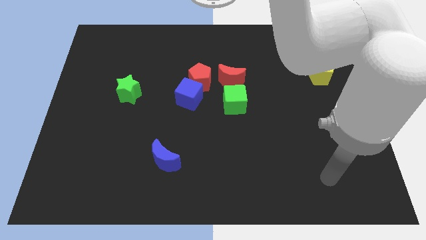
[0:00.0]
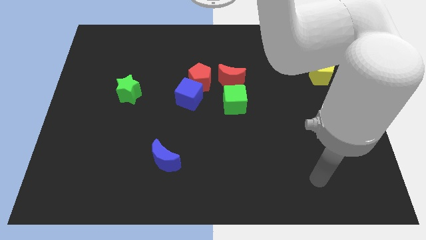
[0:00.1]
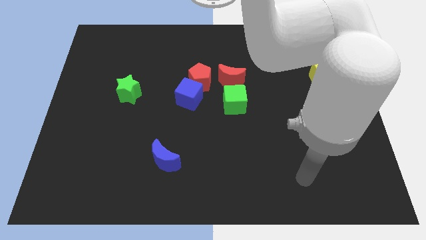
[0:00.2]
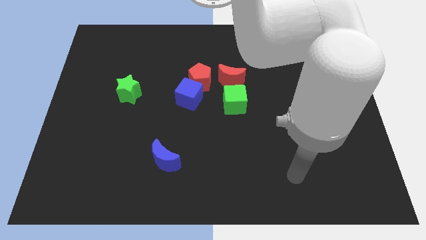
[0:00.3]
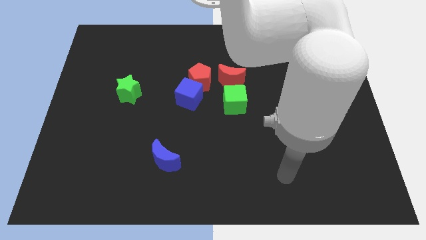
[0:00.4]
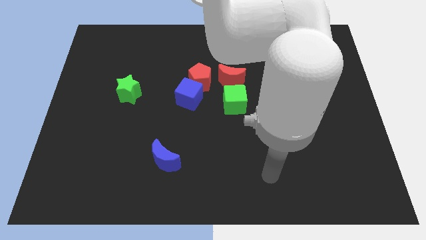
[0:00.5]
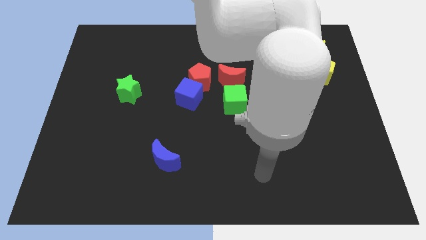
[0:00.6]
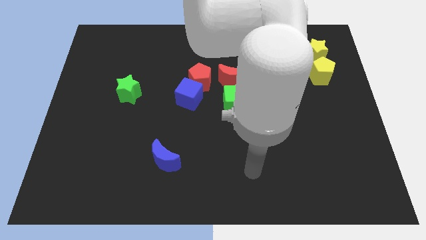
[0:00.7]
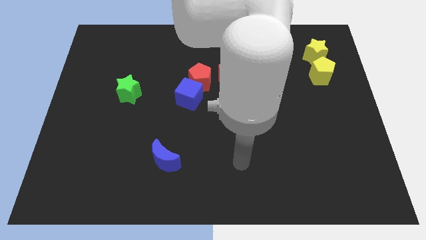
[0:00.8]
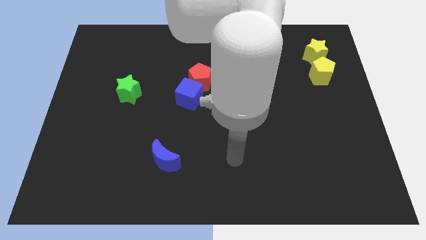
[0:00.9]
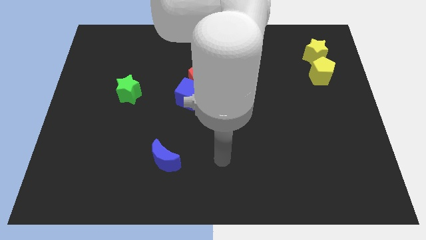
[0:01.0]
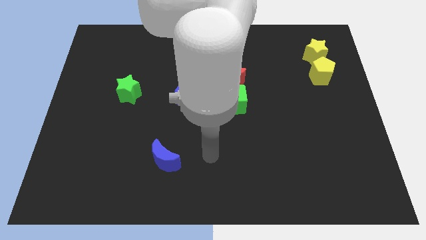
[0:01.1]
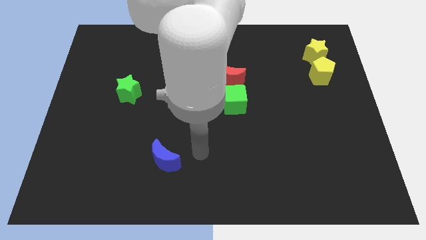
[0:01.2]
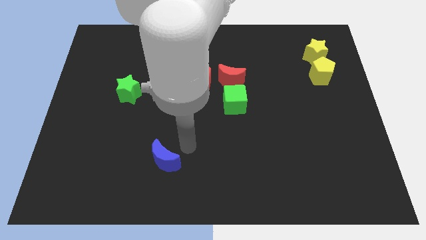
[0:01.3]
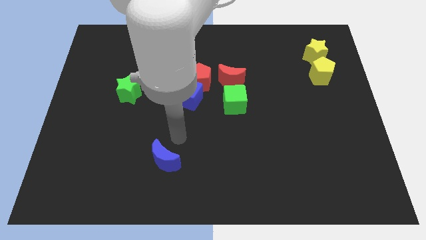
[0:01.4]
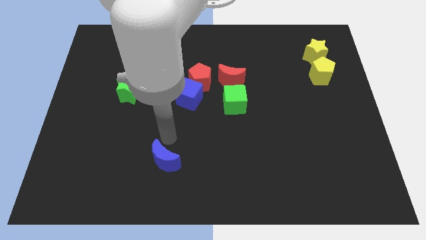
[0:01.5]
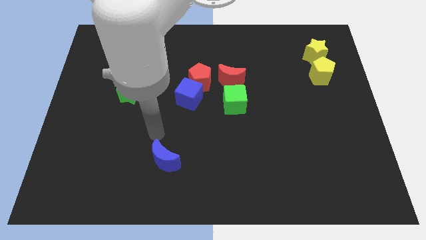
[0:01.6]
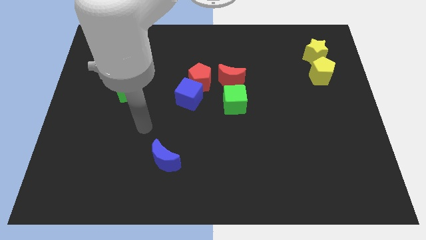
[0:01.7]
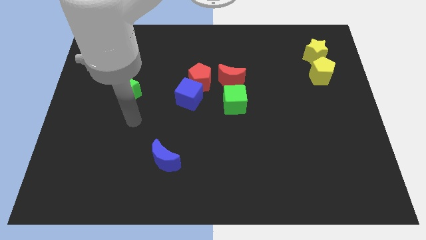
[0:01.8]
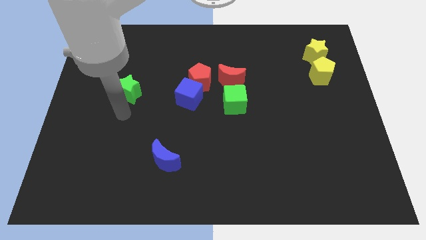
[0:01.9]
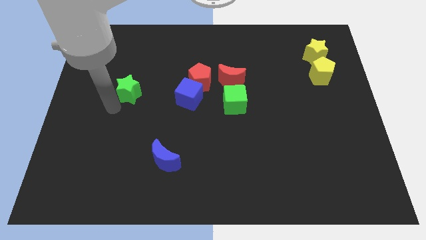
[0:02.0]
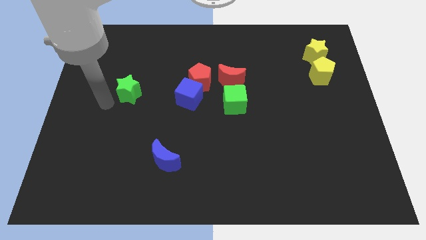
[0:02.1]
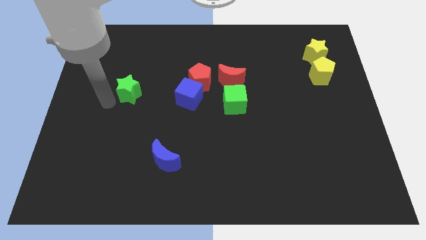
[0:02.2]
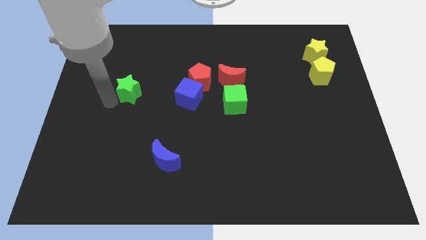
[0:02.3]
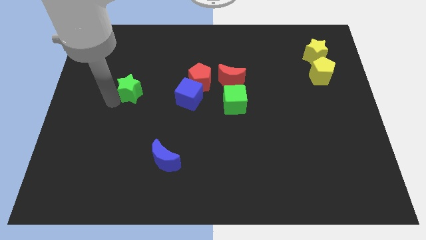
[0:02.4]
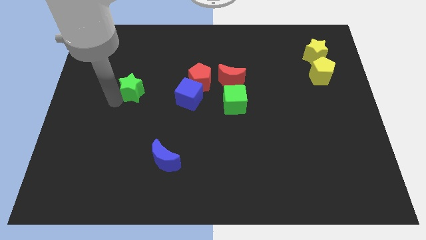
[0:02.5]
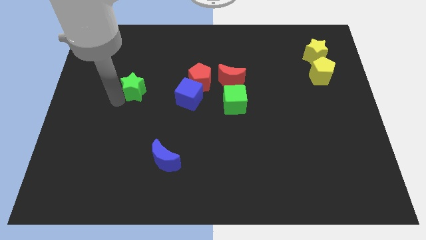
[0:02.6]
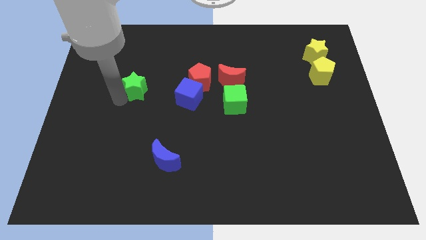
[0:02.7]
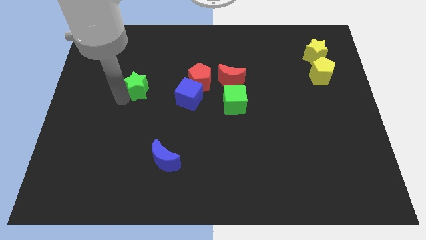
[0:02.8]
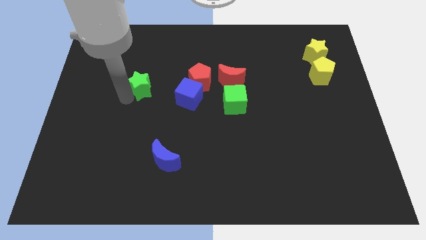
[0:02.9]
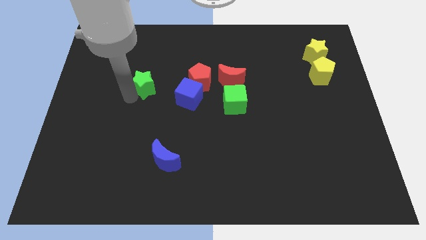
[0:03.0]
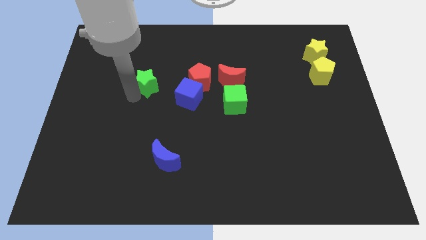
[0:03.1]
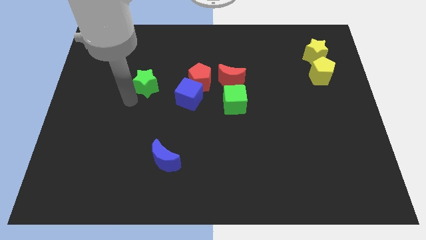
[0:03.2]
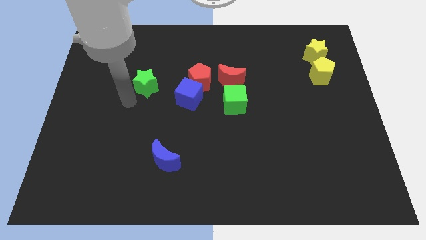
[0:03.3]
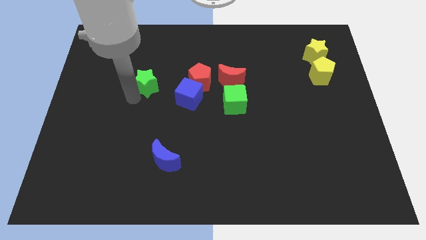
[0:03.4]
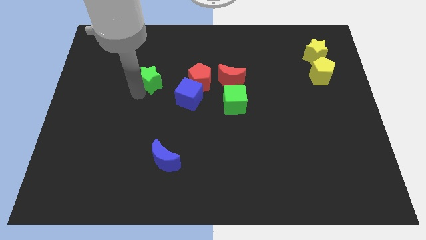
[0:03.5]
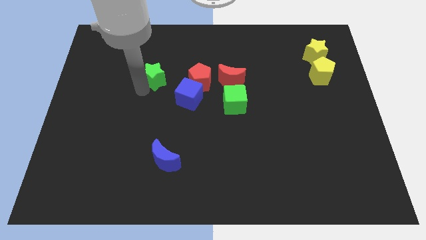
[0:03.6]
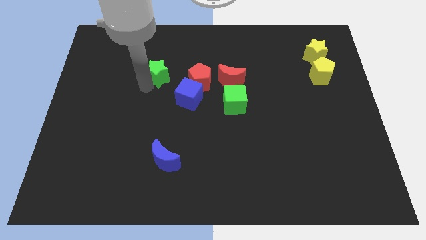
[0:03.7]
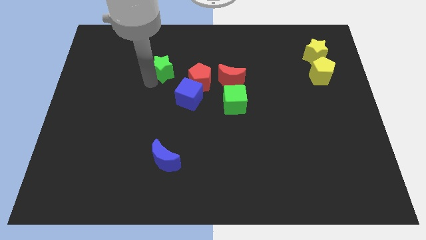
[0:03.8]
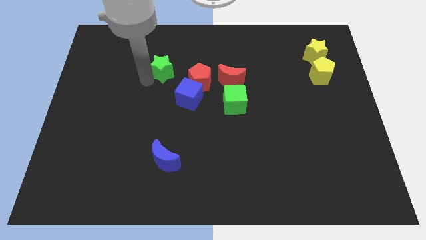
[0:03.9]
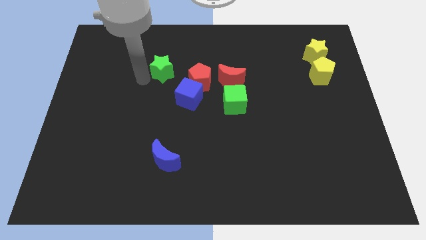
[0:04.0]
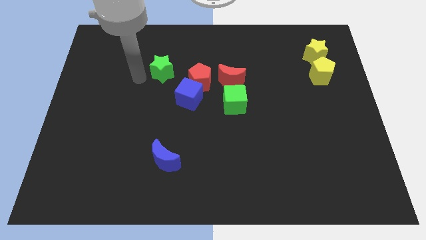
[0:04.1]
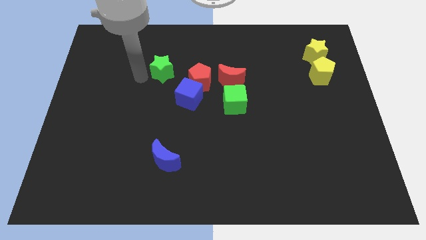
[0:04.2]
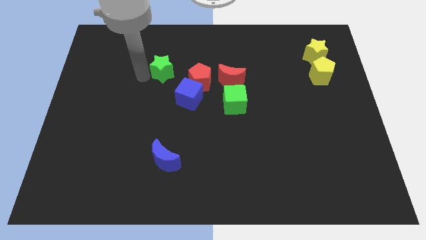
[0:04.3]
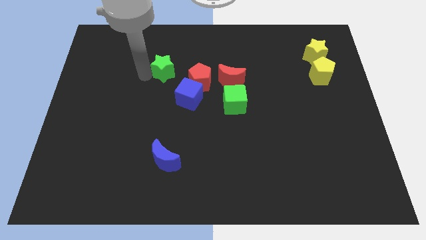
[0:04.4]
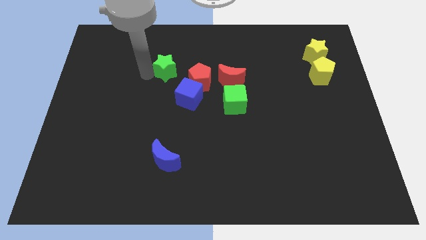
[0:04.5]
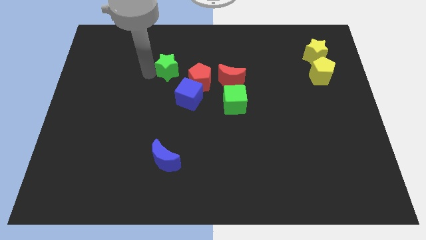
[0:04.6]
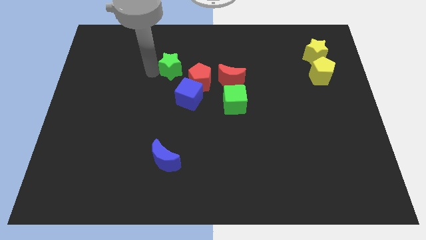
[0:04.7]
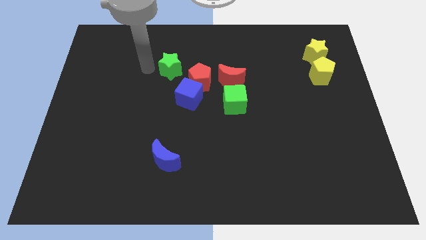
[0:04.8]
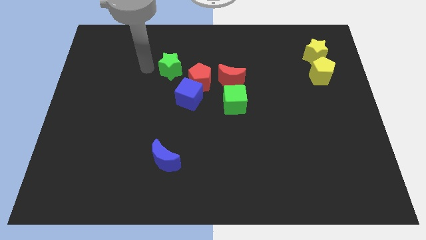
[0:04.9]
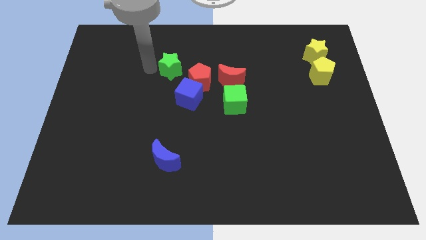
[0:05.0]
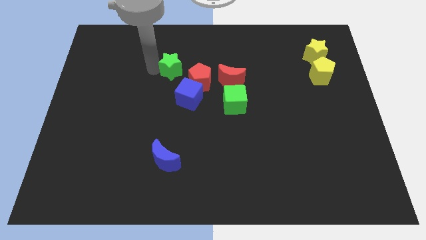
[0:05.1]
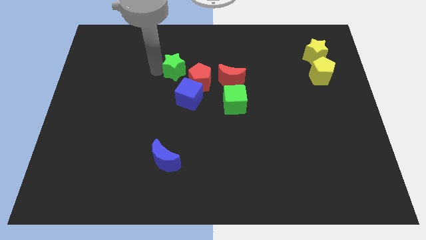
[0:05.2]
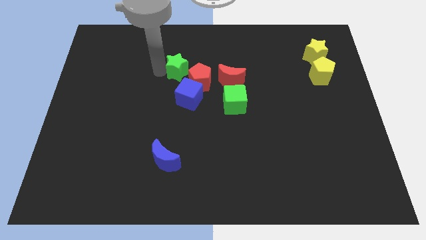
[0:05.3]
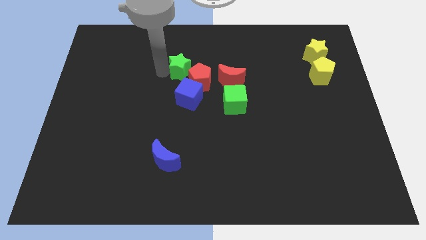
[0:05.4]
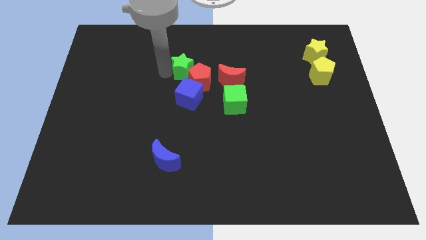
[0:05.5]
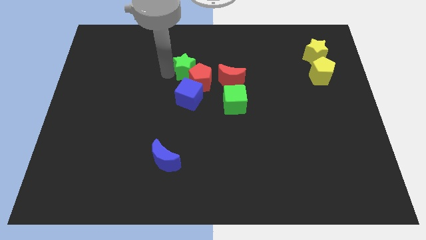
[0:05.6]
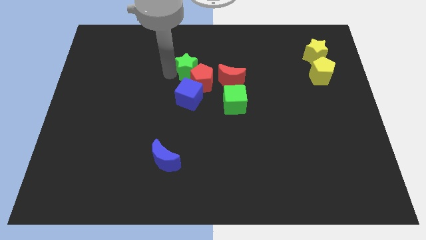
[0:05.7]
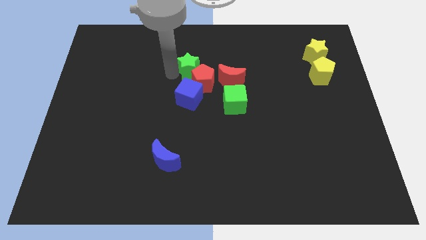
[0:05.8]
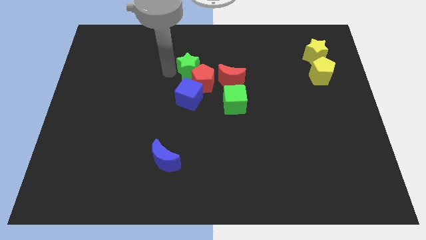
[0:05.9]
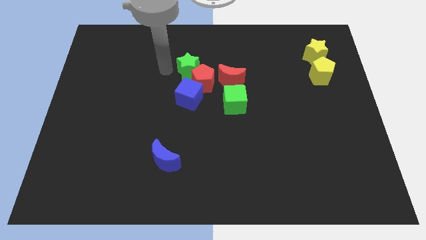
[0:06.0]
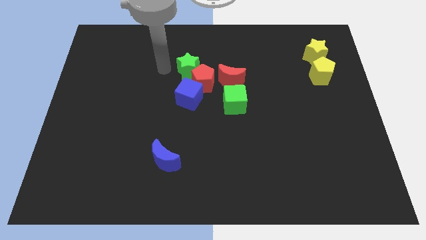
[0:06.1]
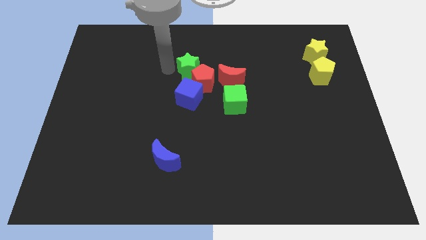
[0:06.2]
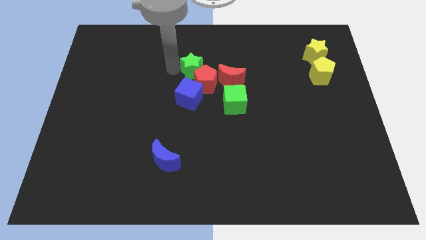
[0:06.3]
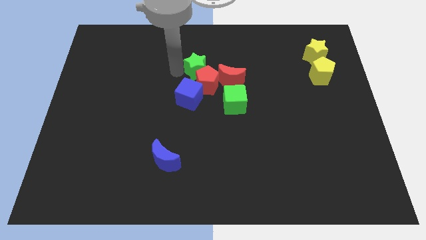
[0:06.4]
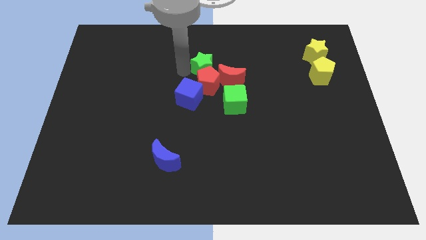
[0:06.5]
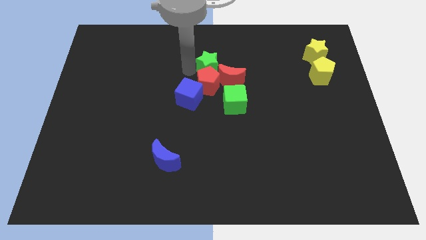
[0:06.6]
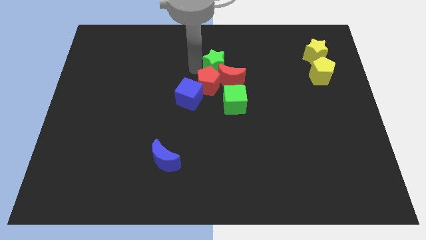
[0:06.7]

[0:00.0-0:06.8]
move the green star to the top side of the green cube
